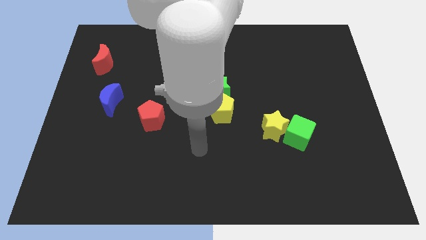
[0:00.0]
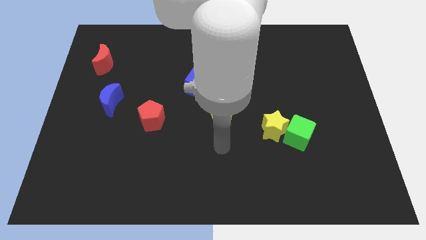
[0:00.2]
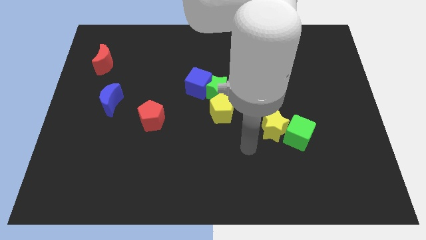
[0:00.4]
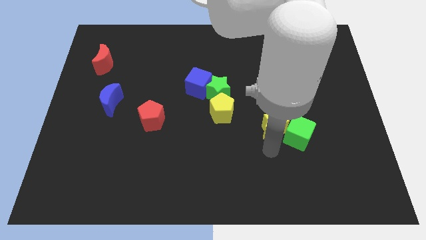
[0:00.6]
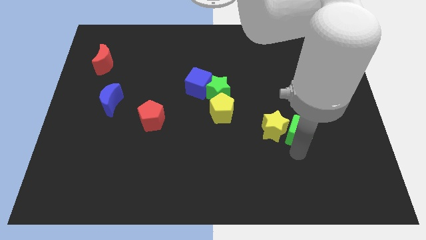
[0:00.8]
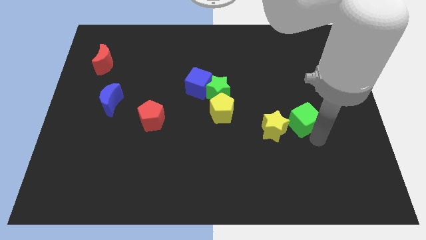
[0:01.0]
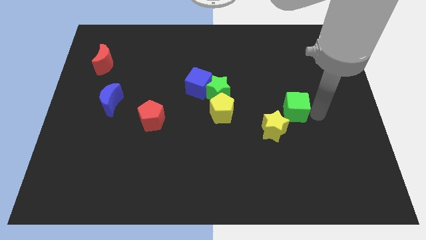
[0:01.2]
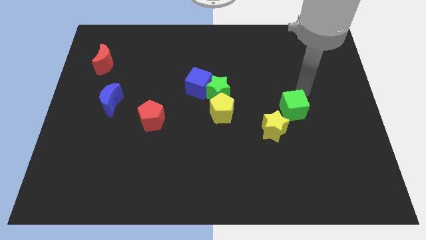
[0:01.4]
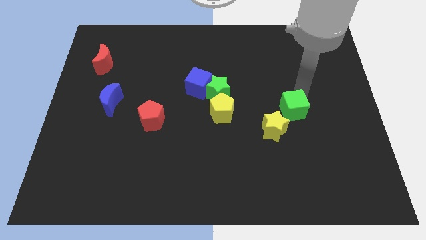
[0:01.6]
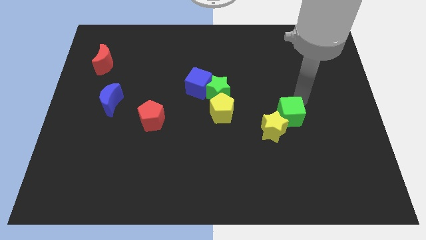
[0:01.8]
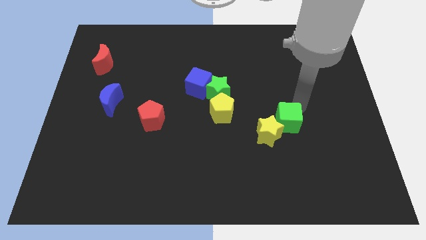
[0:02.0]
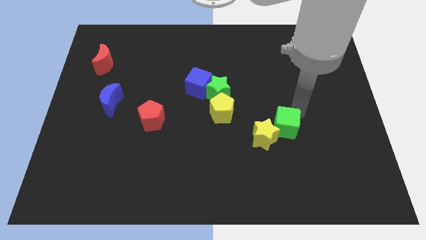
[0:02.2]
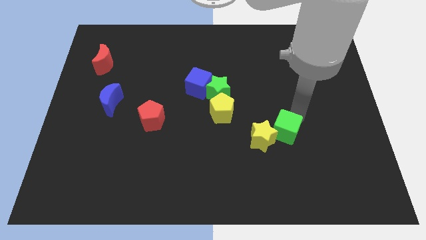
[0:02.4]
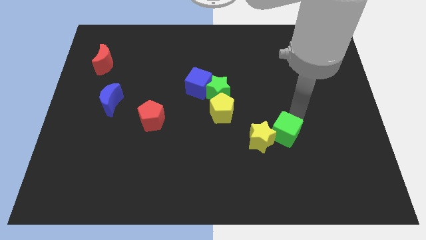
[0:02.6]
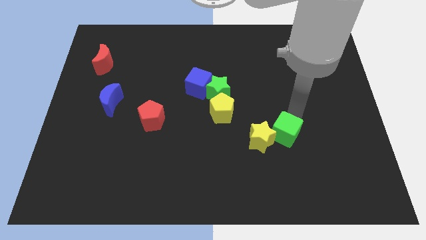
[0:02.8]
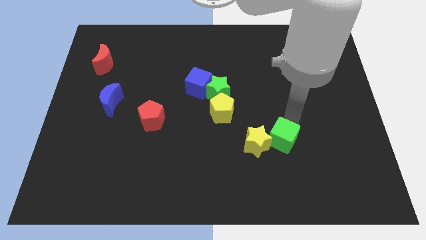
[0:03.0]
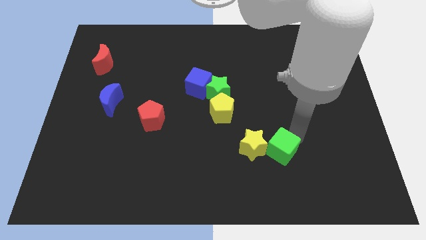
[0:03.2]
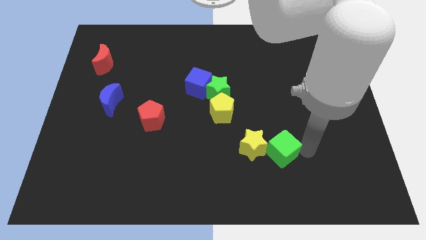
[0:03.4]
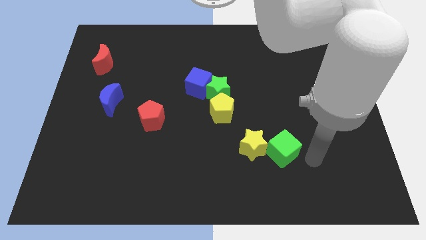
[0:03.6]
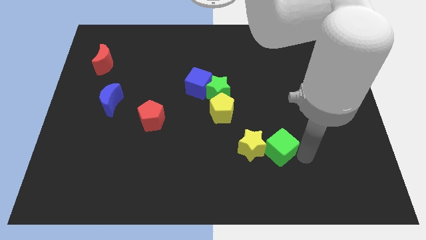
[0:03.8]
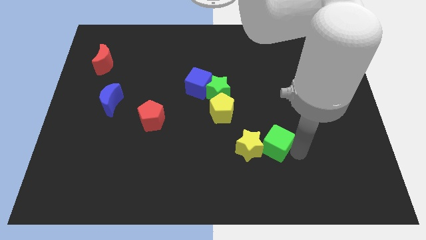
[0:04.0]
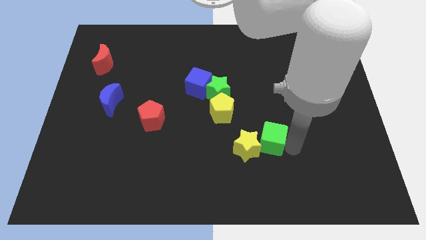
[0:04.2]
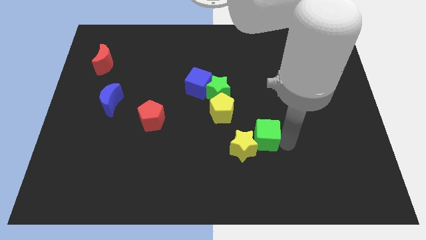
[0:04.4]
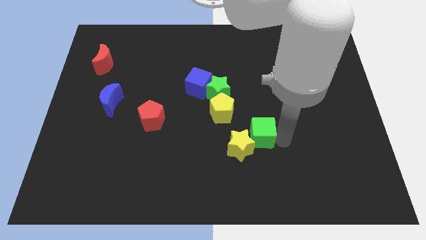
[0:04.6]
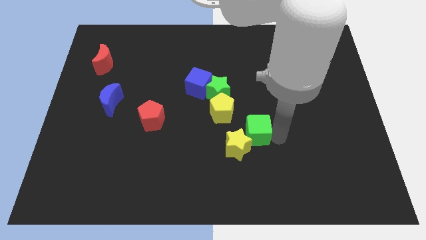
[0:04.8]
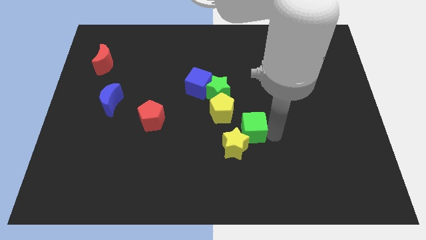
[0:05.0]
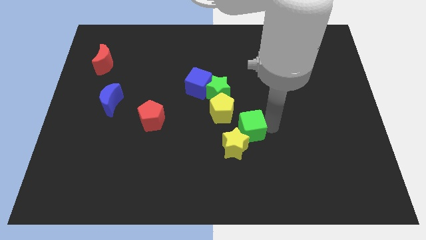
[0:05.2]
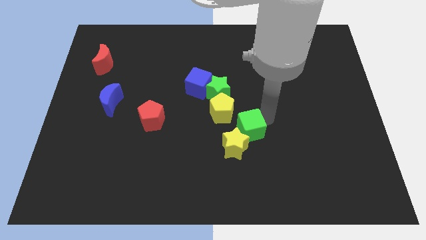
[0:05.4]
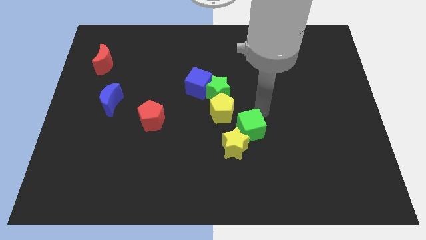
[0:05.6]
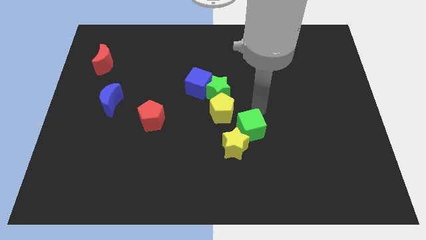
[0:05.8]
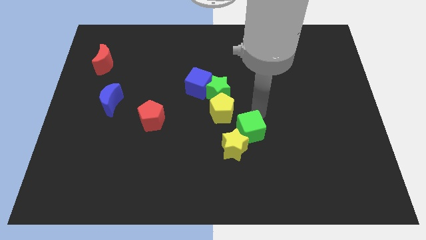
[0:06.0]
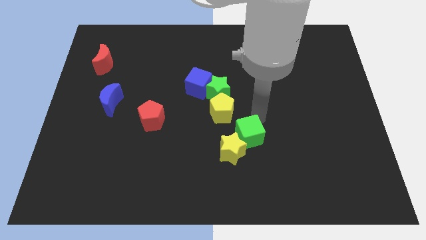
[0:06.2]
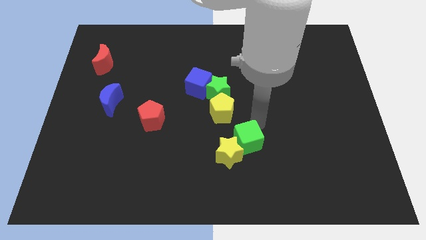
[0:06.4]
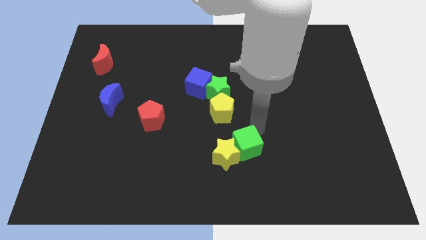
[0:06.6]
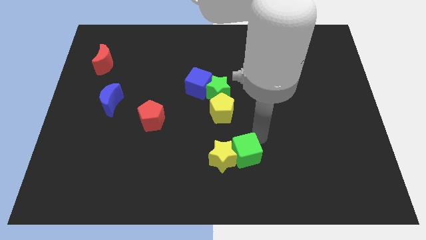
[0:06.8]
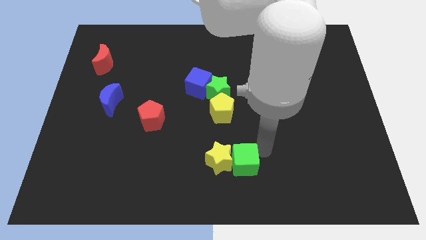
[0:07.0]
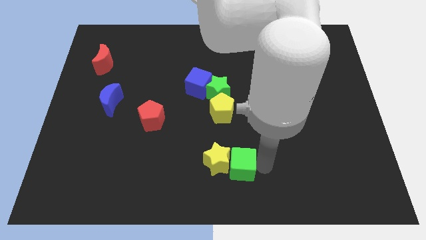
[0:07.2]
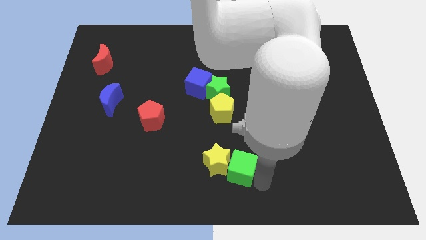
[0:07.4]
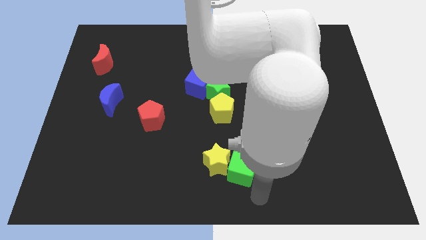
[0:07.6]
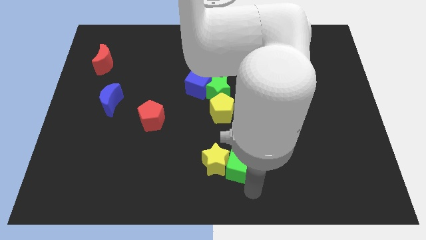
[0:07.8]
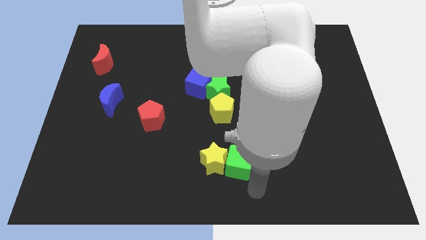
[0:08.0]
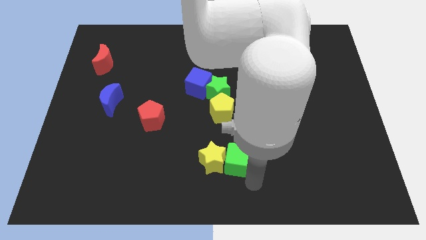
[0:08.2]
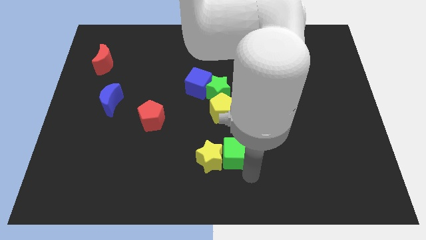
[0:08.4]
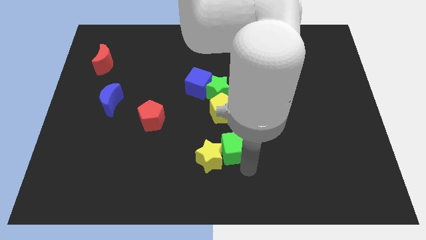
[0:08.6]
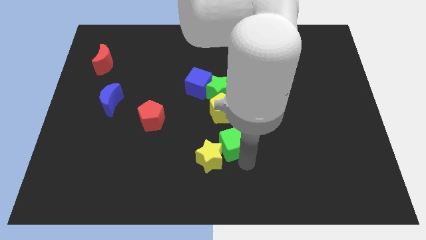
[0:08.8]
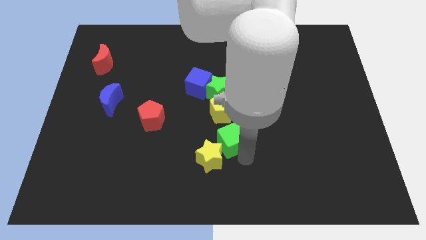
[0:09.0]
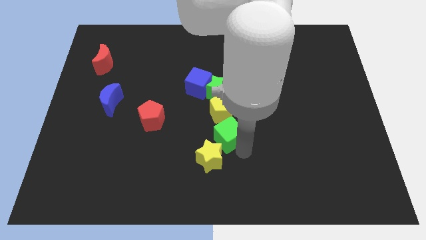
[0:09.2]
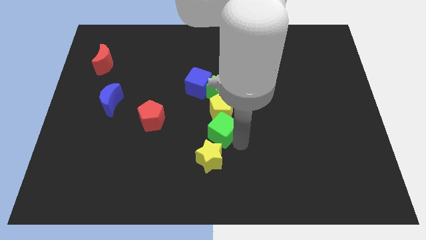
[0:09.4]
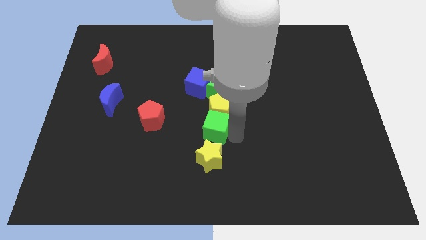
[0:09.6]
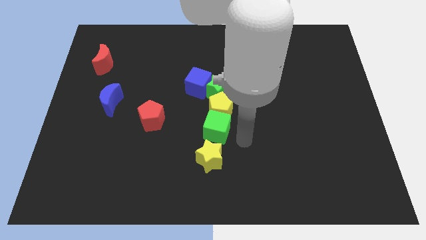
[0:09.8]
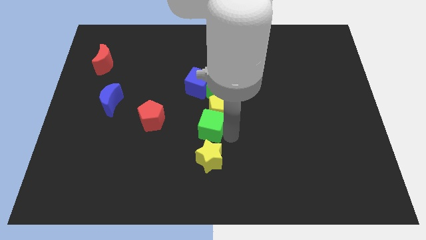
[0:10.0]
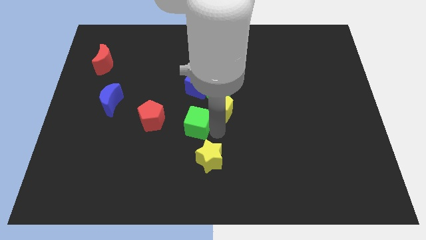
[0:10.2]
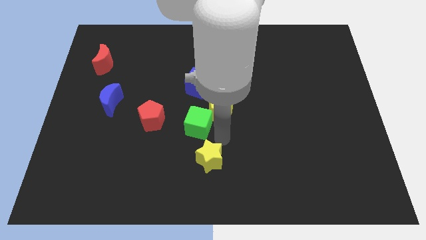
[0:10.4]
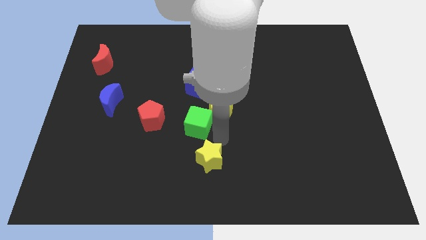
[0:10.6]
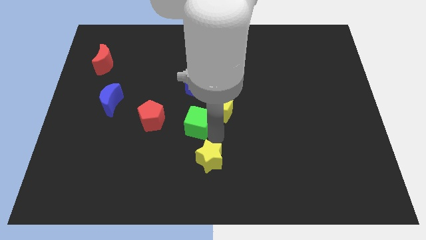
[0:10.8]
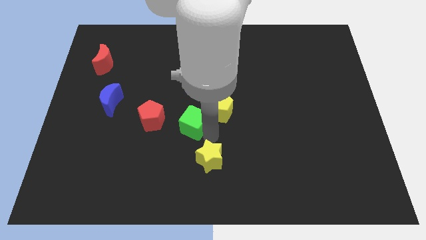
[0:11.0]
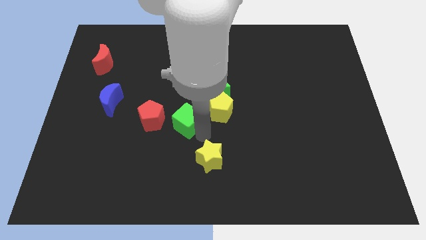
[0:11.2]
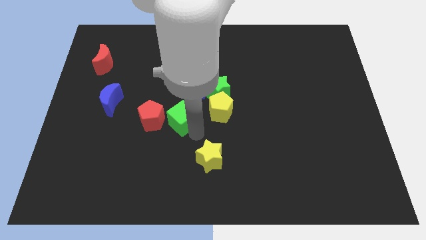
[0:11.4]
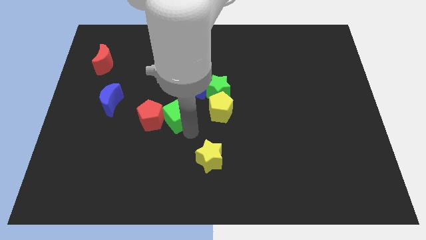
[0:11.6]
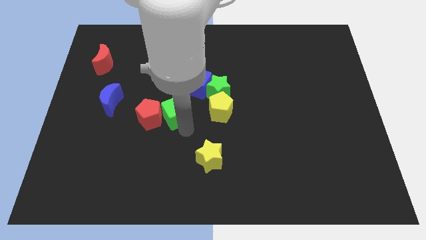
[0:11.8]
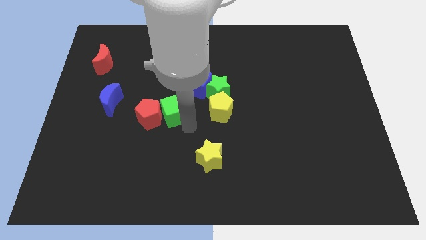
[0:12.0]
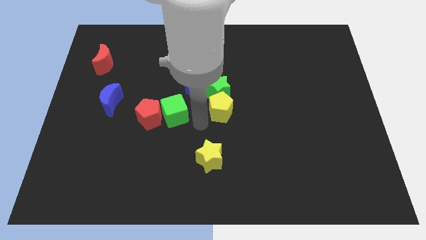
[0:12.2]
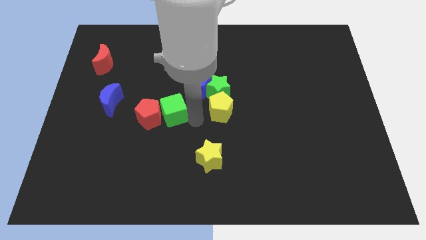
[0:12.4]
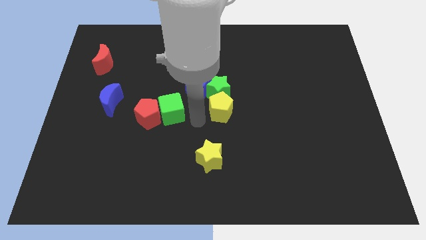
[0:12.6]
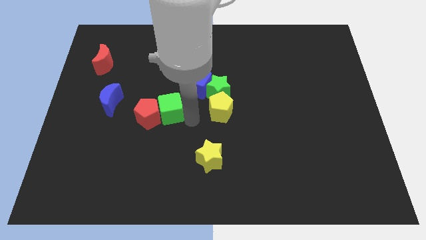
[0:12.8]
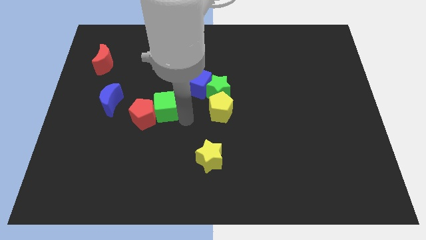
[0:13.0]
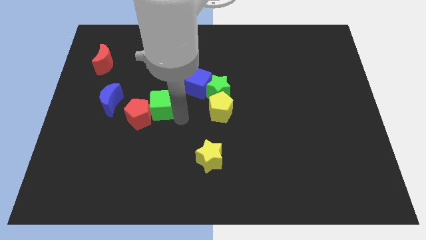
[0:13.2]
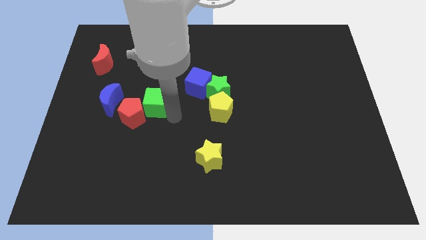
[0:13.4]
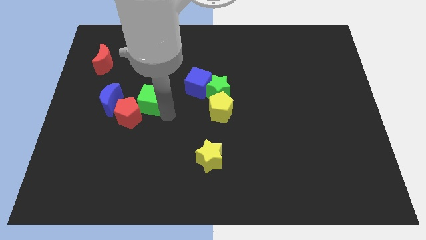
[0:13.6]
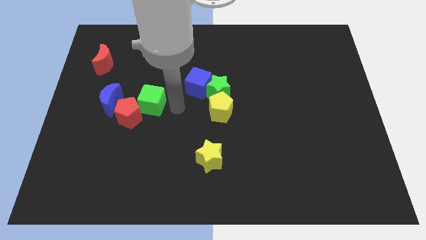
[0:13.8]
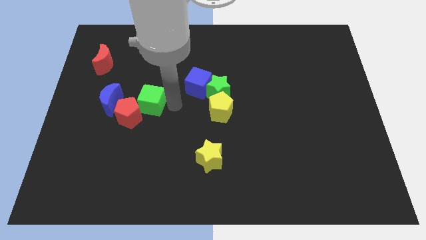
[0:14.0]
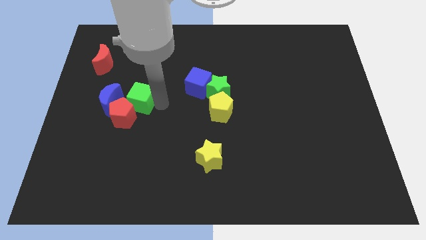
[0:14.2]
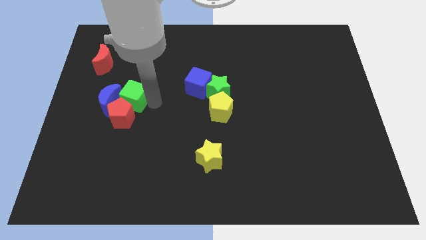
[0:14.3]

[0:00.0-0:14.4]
slide the green cube to the blue moon
